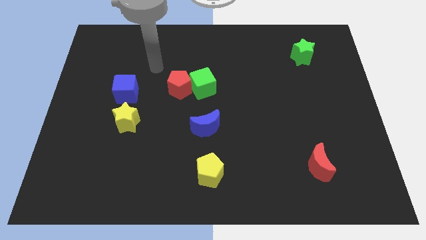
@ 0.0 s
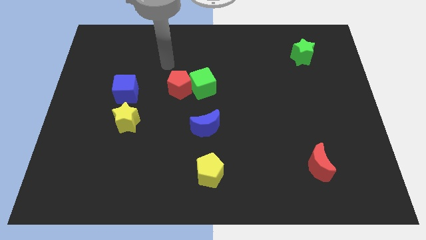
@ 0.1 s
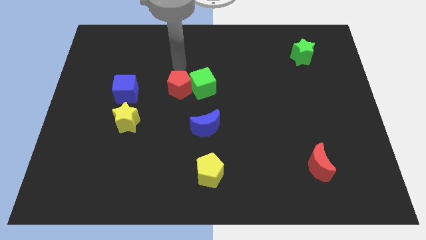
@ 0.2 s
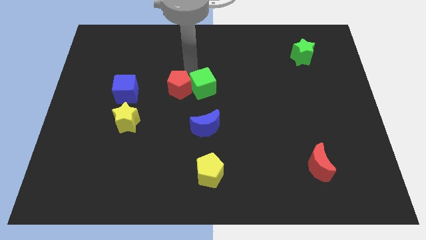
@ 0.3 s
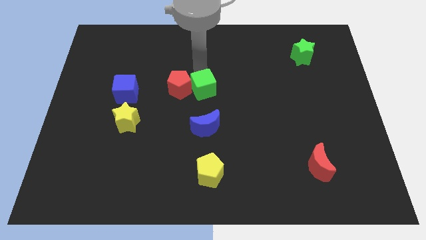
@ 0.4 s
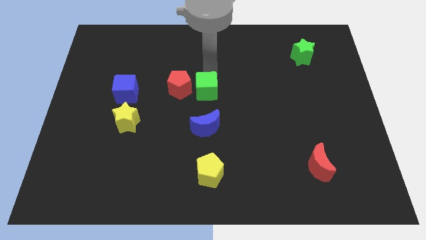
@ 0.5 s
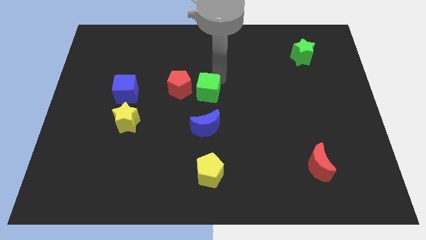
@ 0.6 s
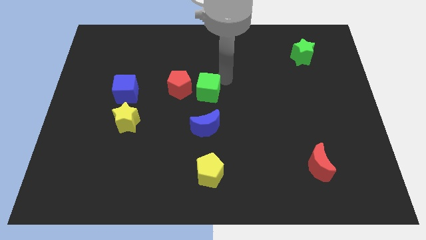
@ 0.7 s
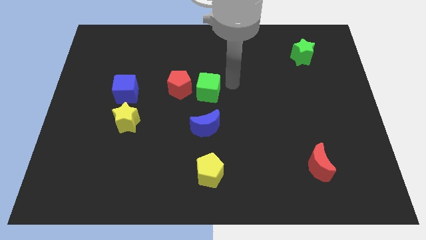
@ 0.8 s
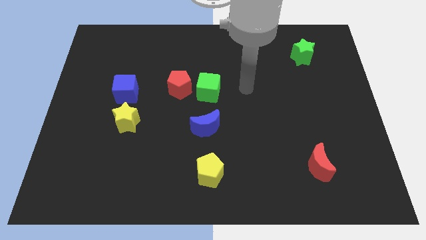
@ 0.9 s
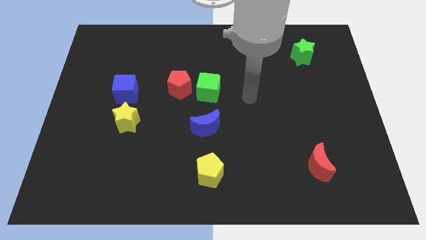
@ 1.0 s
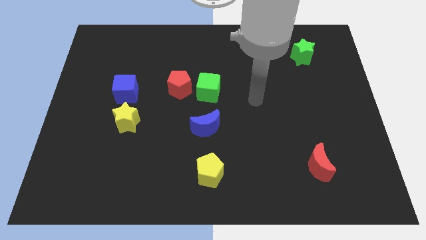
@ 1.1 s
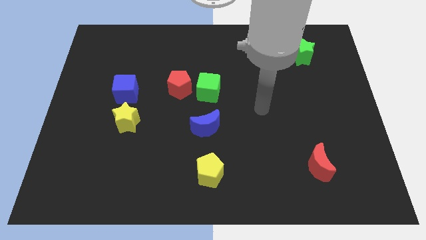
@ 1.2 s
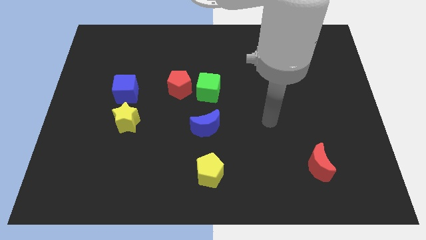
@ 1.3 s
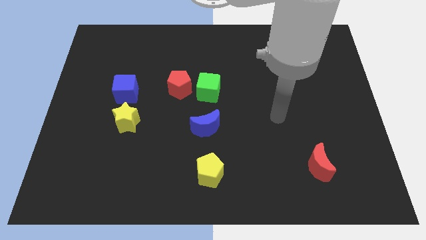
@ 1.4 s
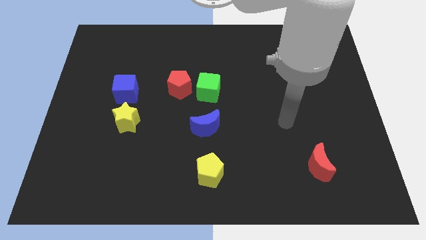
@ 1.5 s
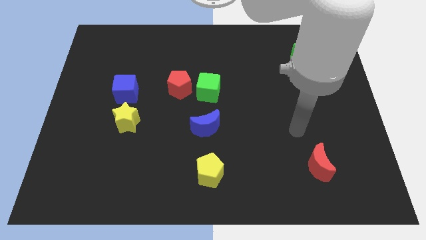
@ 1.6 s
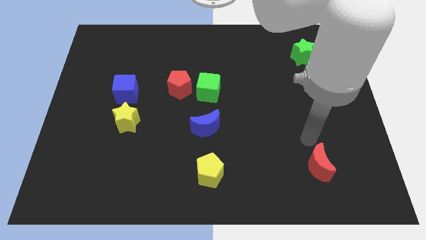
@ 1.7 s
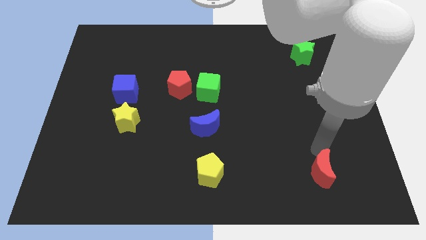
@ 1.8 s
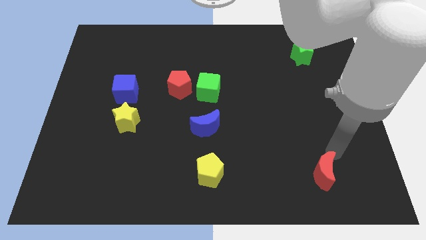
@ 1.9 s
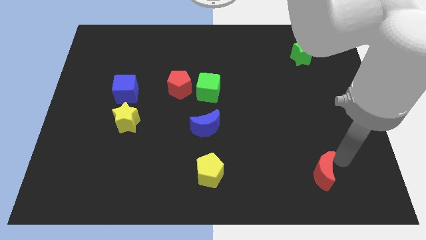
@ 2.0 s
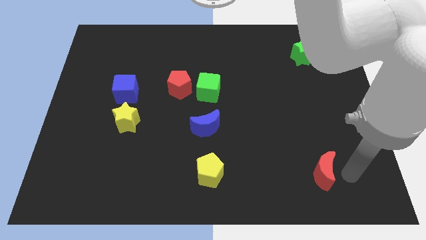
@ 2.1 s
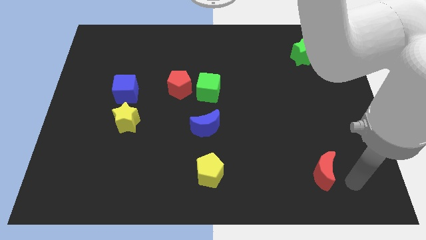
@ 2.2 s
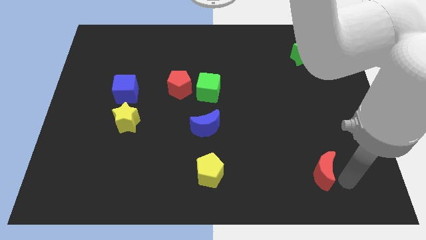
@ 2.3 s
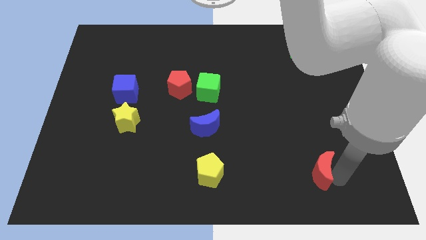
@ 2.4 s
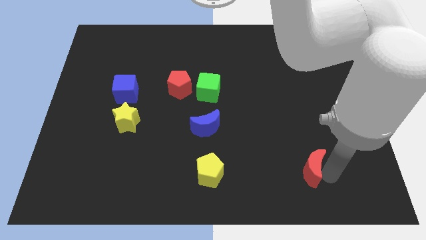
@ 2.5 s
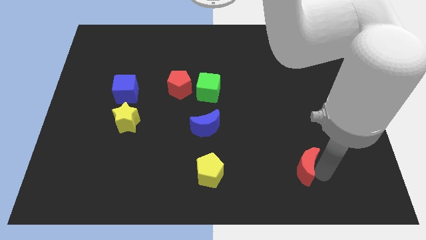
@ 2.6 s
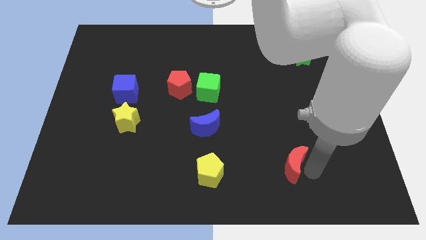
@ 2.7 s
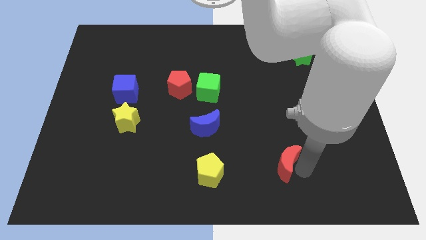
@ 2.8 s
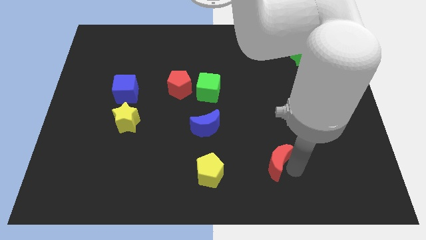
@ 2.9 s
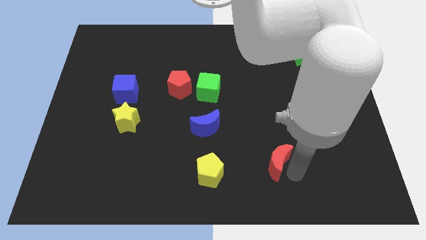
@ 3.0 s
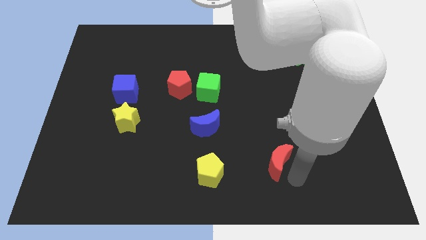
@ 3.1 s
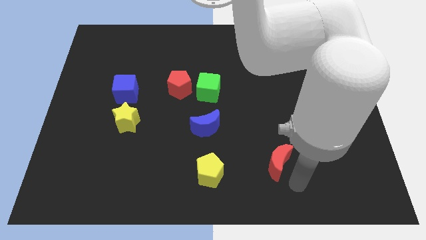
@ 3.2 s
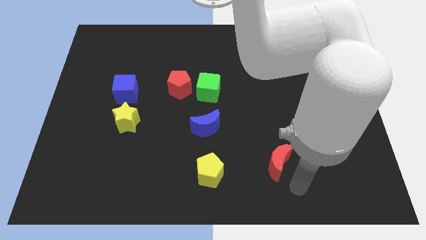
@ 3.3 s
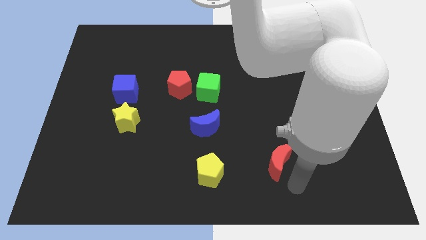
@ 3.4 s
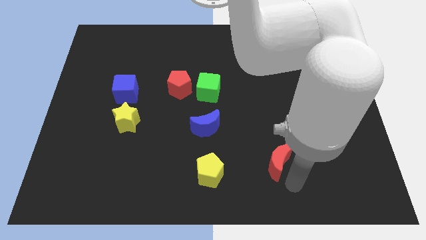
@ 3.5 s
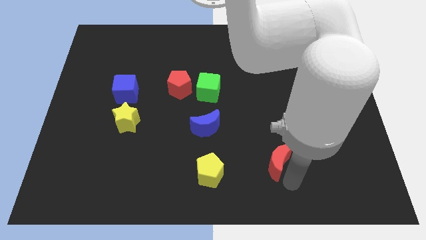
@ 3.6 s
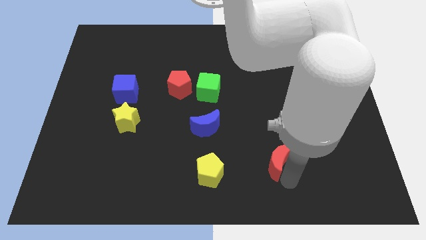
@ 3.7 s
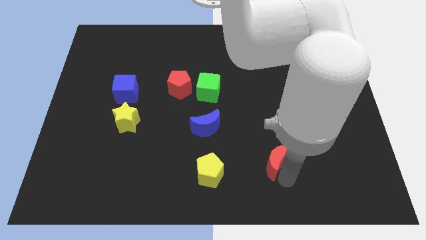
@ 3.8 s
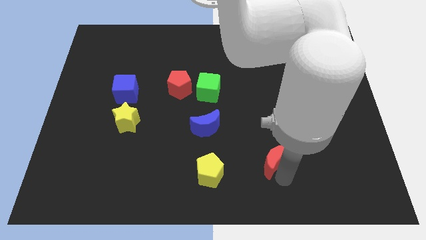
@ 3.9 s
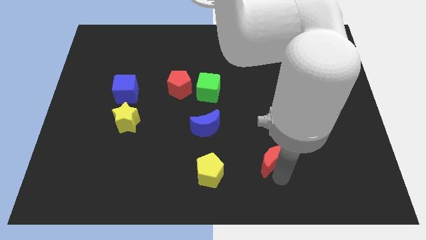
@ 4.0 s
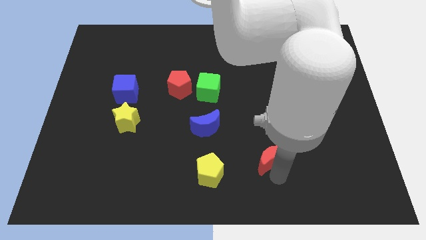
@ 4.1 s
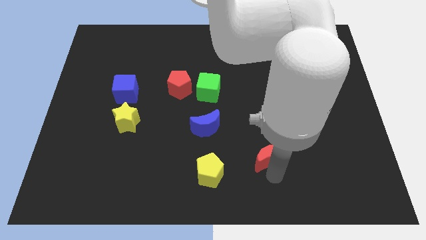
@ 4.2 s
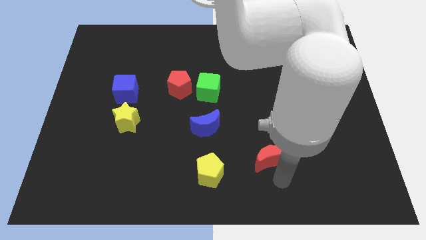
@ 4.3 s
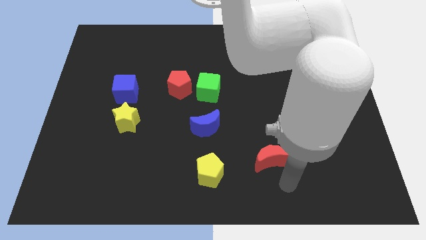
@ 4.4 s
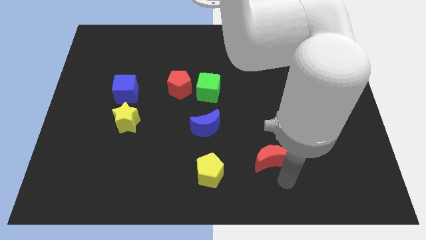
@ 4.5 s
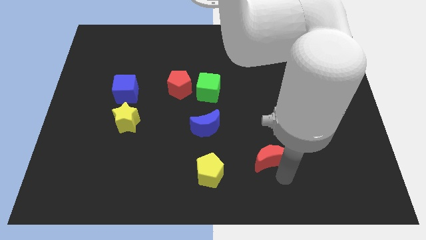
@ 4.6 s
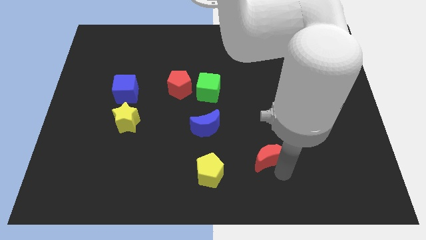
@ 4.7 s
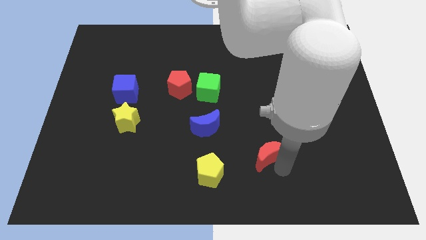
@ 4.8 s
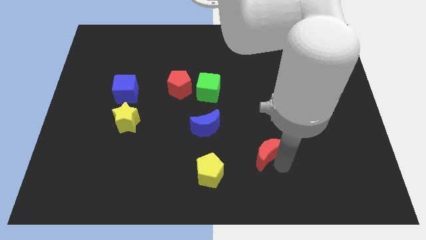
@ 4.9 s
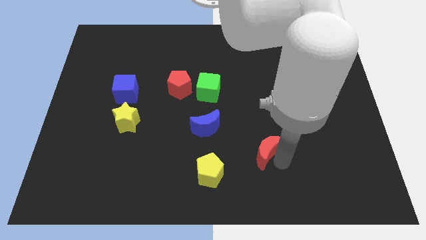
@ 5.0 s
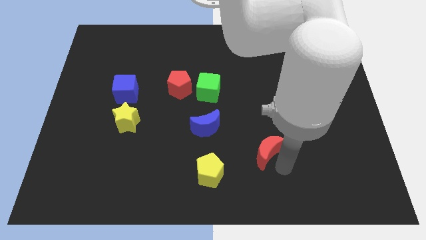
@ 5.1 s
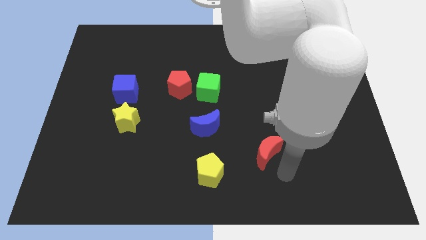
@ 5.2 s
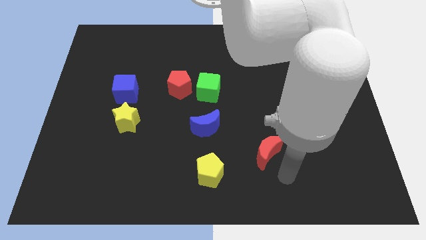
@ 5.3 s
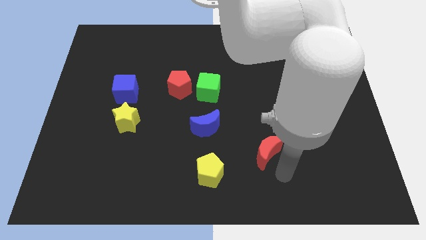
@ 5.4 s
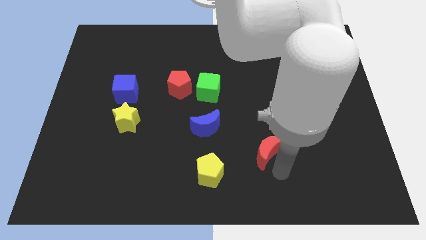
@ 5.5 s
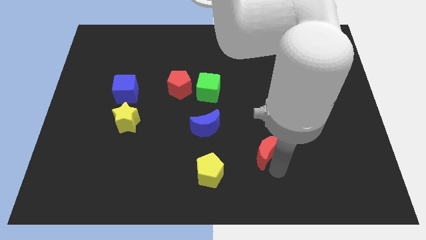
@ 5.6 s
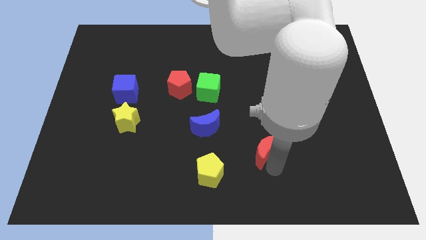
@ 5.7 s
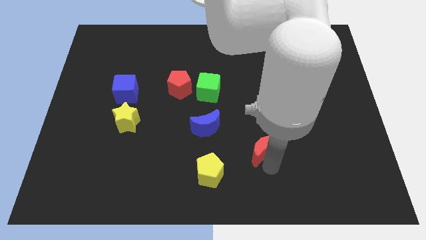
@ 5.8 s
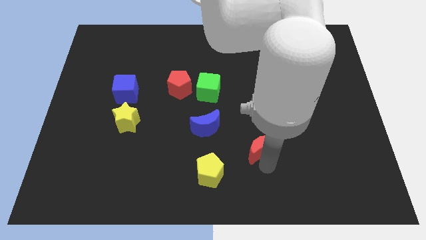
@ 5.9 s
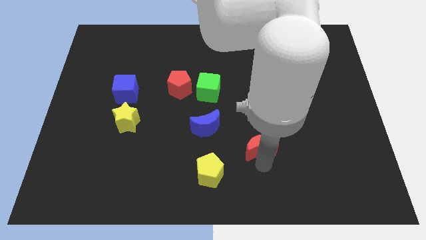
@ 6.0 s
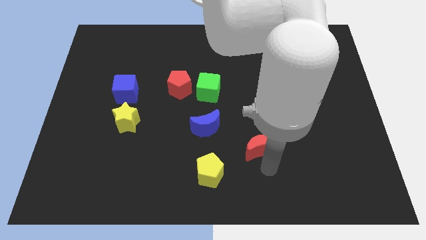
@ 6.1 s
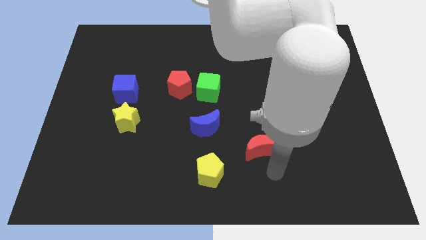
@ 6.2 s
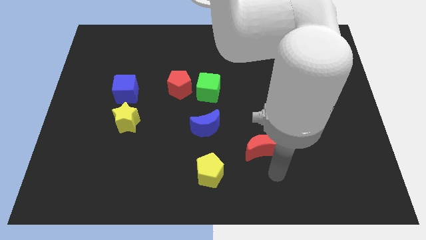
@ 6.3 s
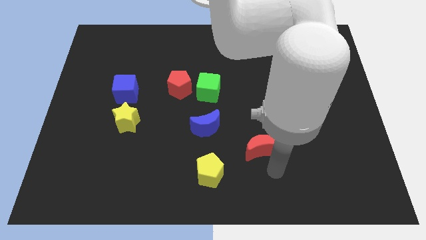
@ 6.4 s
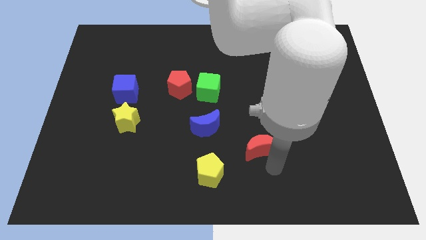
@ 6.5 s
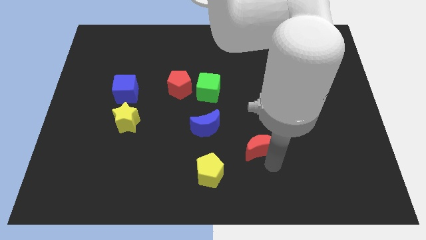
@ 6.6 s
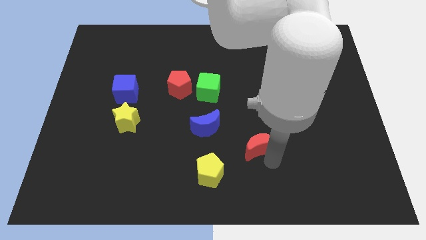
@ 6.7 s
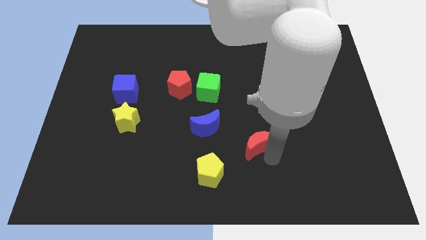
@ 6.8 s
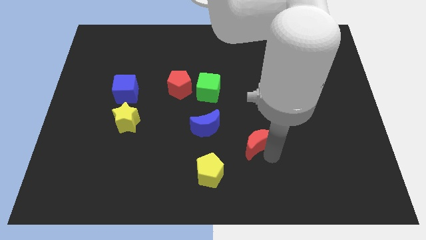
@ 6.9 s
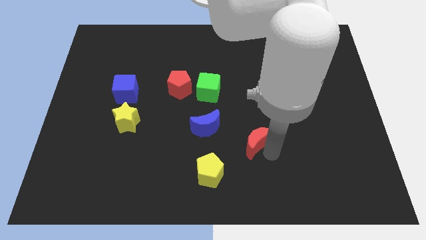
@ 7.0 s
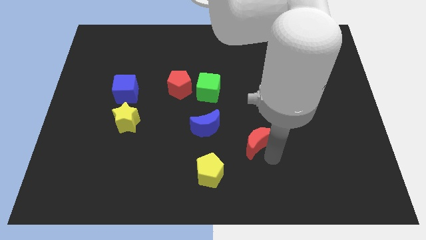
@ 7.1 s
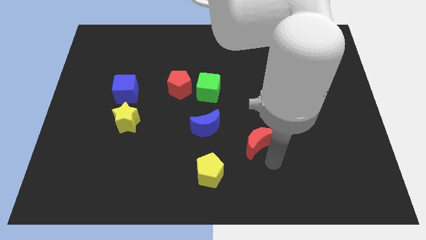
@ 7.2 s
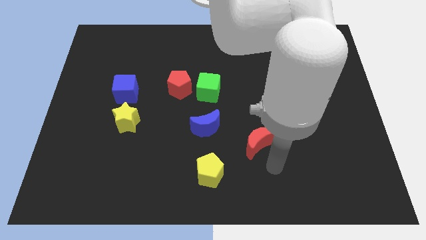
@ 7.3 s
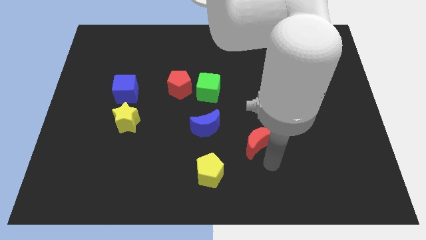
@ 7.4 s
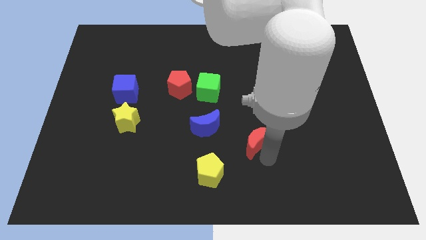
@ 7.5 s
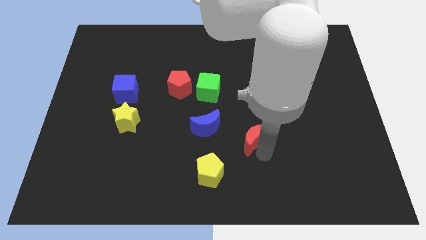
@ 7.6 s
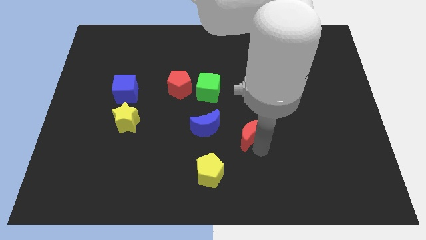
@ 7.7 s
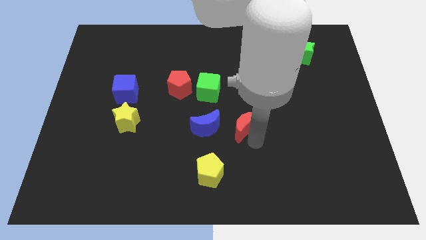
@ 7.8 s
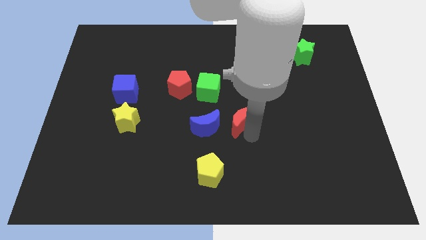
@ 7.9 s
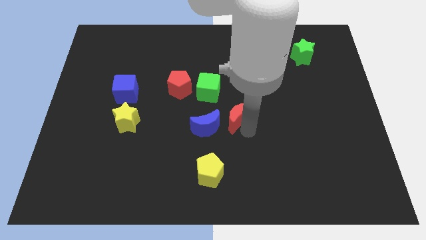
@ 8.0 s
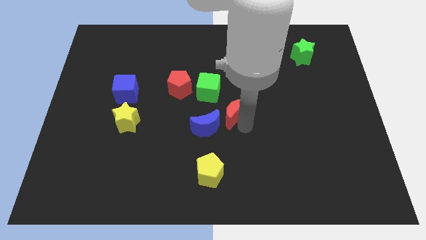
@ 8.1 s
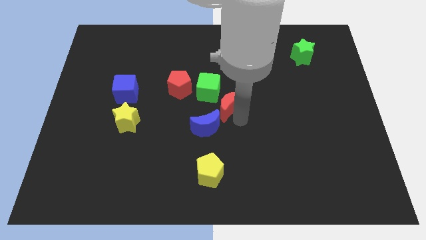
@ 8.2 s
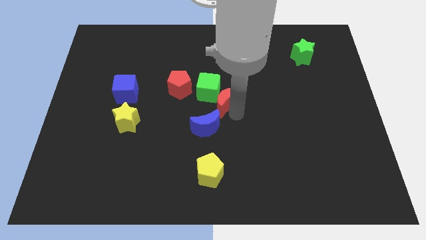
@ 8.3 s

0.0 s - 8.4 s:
slide the red moon towards the green cube
